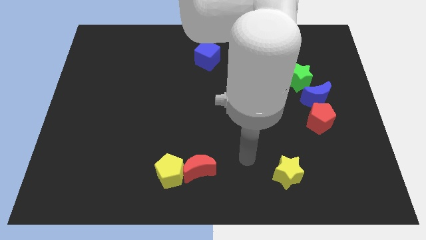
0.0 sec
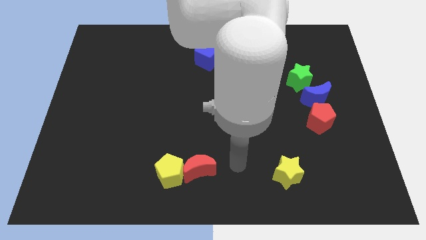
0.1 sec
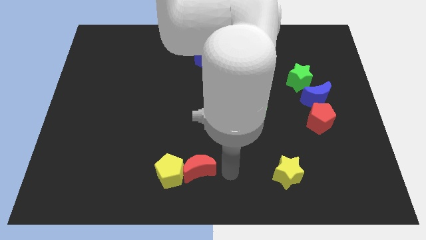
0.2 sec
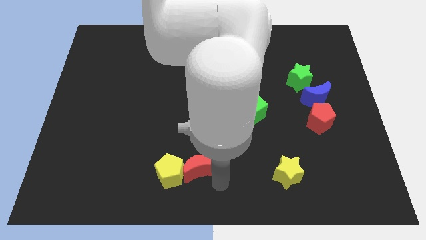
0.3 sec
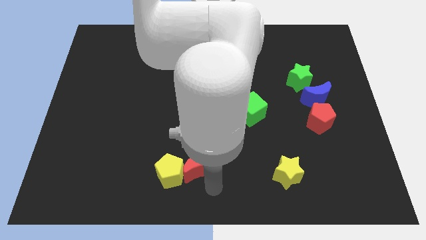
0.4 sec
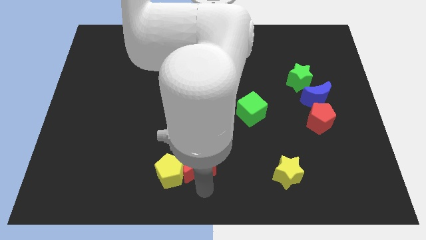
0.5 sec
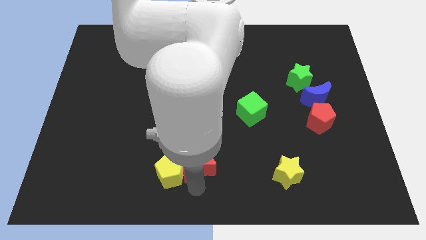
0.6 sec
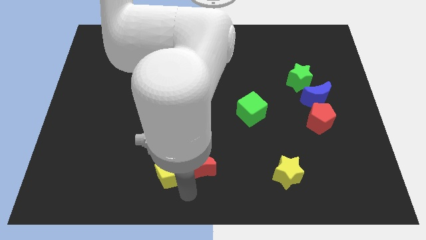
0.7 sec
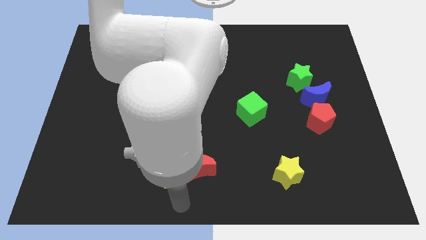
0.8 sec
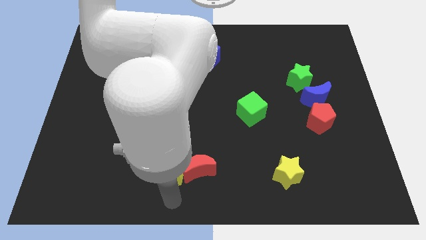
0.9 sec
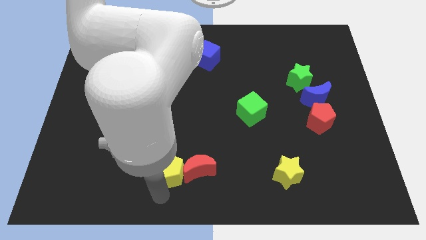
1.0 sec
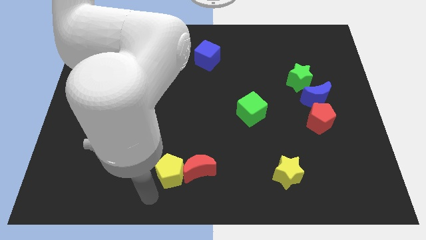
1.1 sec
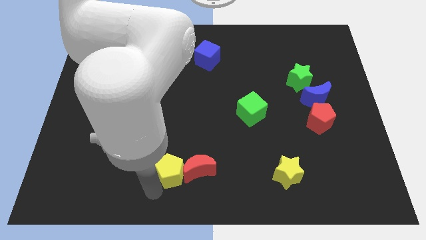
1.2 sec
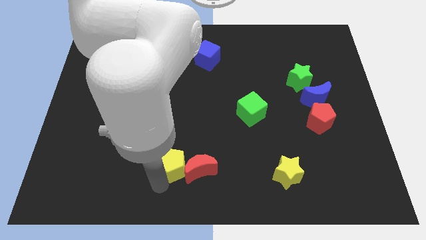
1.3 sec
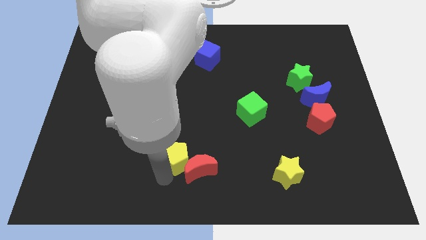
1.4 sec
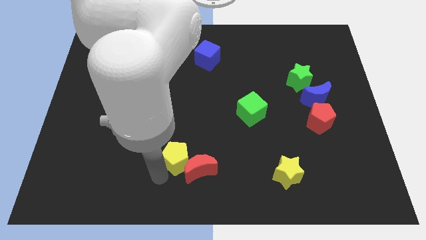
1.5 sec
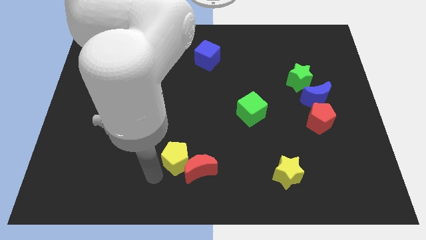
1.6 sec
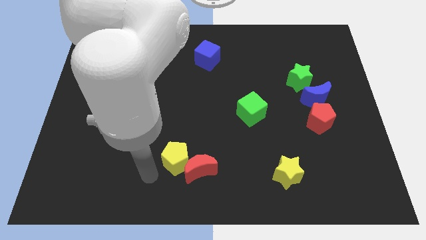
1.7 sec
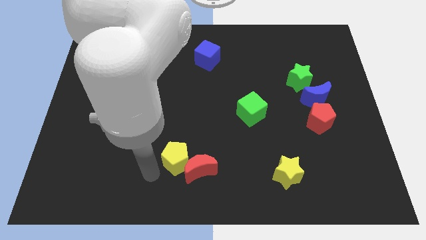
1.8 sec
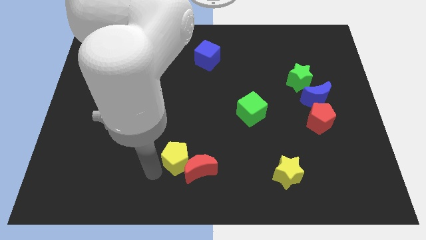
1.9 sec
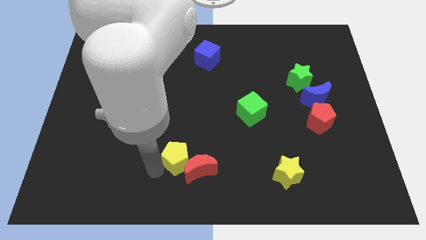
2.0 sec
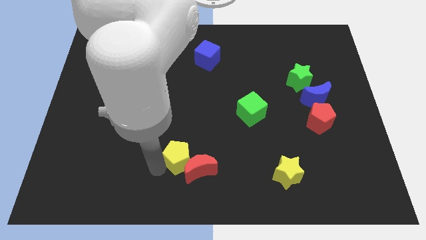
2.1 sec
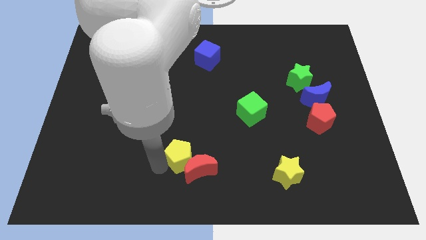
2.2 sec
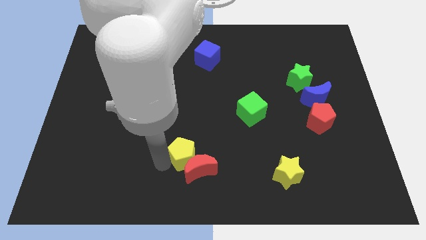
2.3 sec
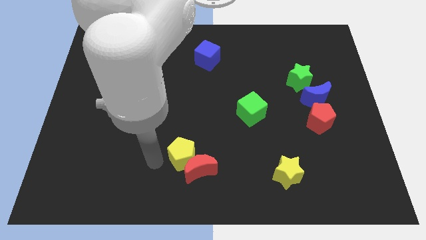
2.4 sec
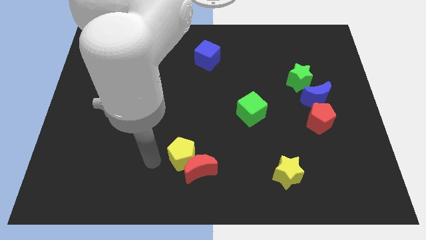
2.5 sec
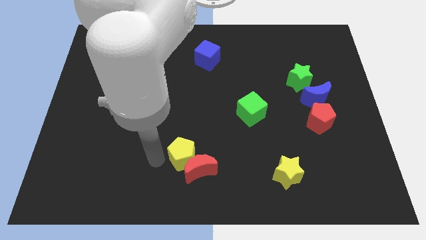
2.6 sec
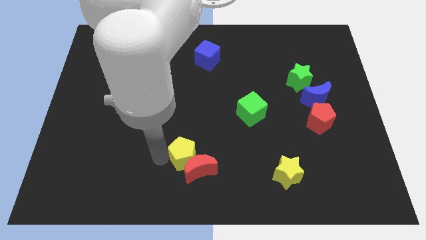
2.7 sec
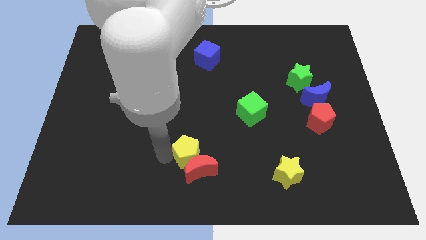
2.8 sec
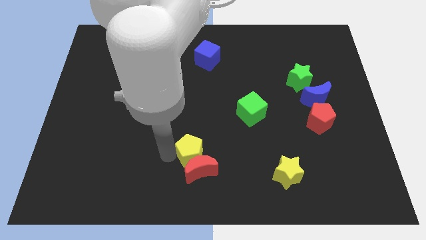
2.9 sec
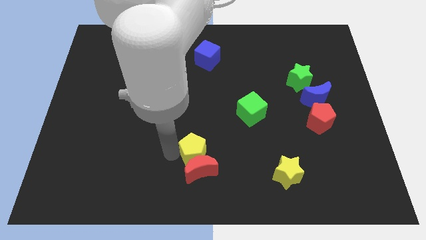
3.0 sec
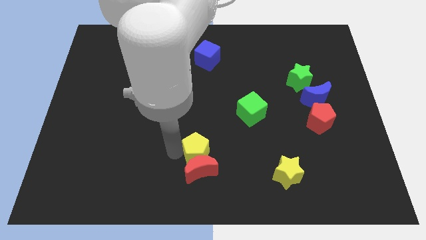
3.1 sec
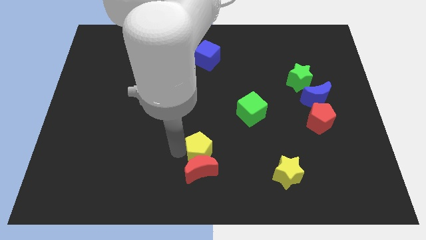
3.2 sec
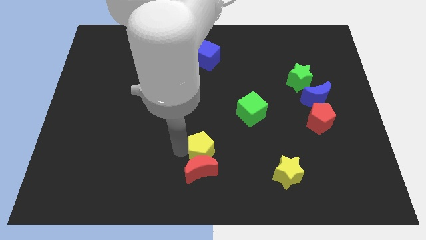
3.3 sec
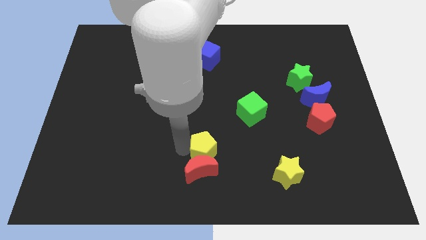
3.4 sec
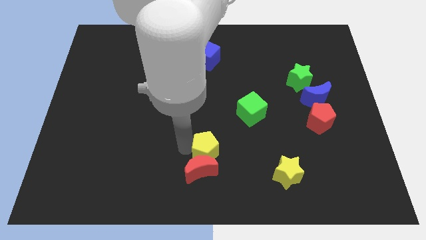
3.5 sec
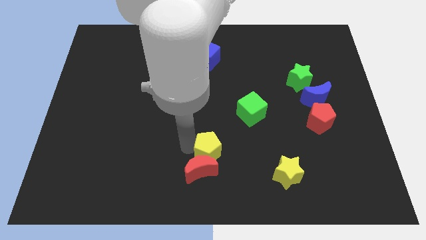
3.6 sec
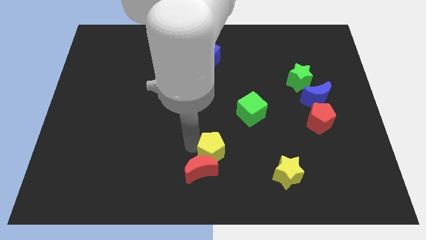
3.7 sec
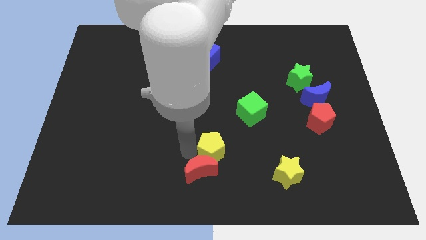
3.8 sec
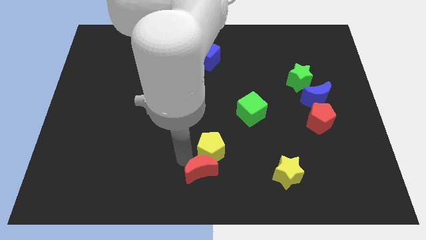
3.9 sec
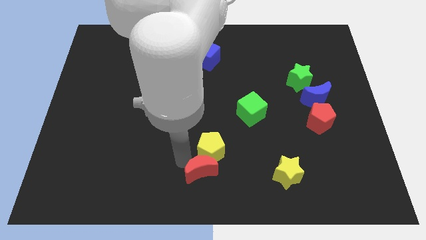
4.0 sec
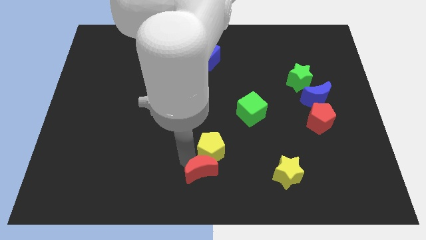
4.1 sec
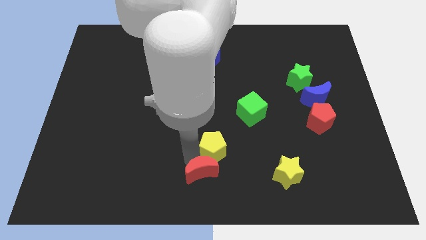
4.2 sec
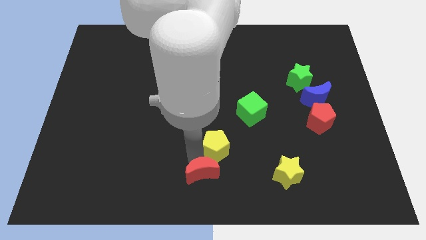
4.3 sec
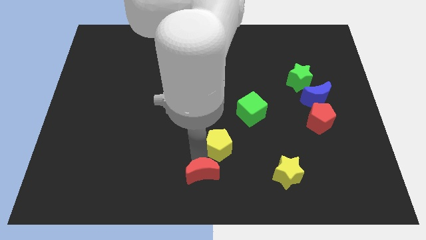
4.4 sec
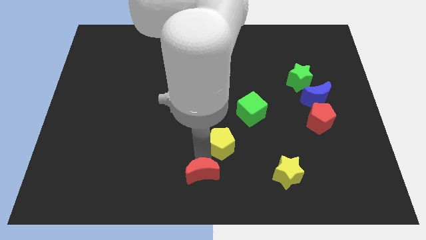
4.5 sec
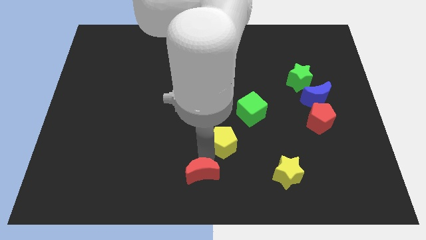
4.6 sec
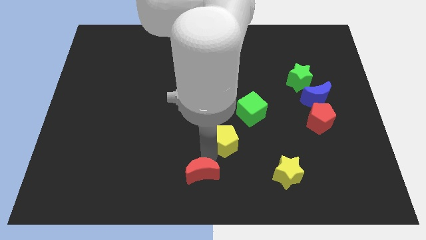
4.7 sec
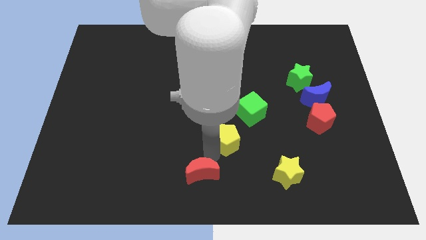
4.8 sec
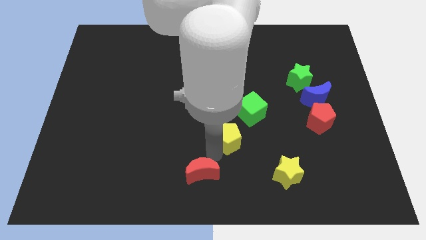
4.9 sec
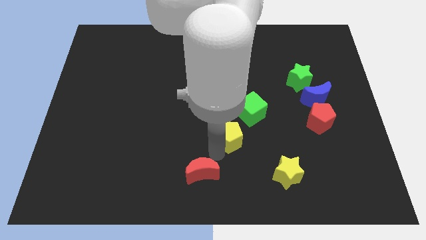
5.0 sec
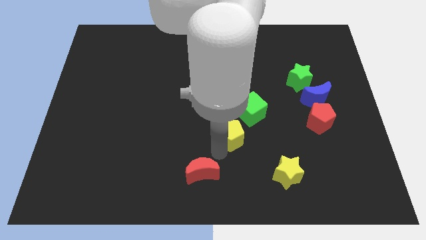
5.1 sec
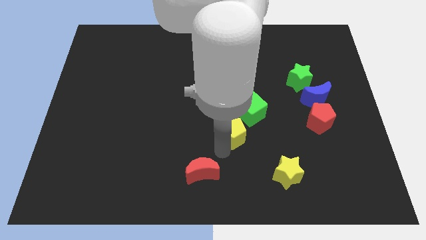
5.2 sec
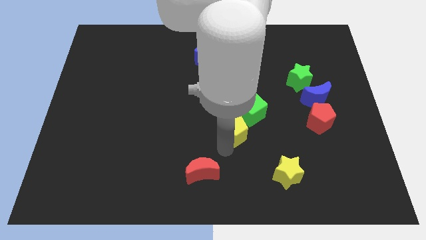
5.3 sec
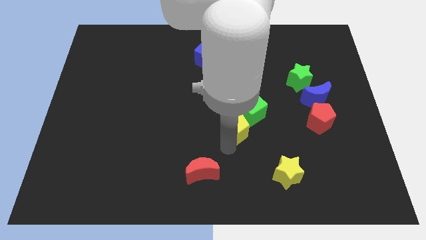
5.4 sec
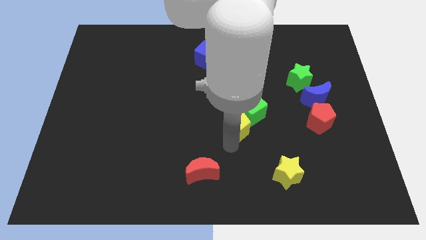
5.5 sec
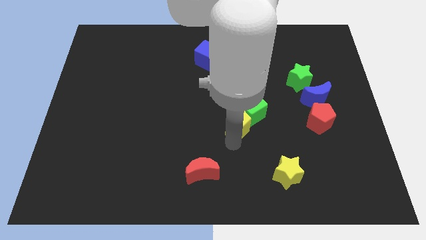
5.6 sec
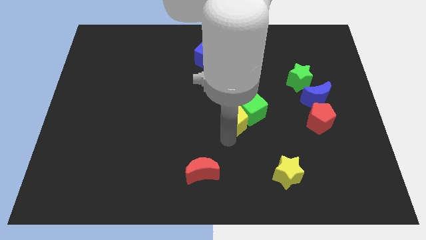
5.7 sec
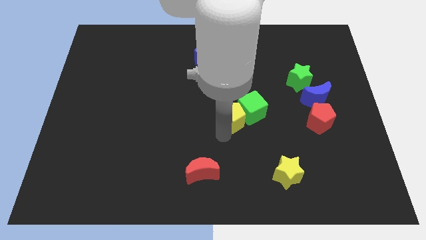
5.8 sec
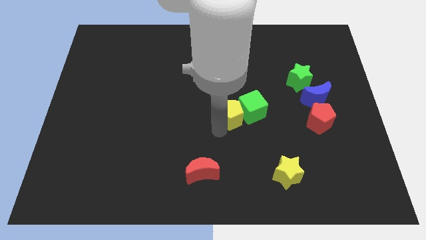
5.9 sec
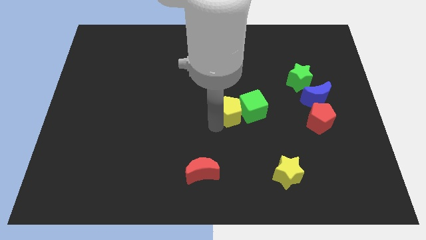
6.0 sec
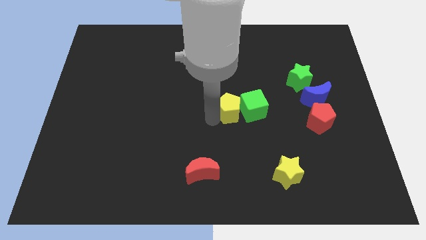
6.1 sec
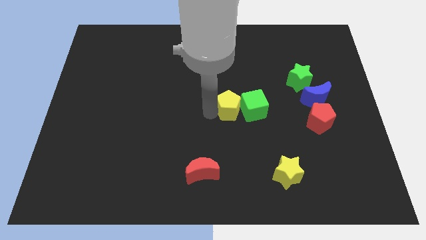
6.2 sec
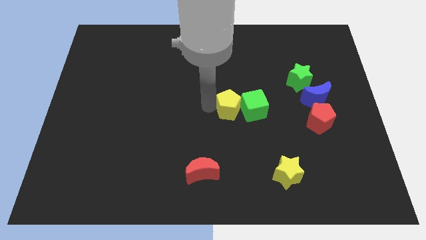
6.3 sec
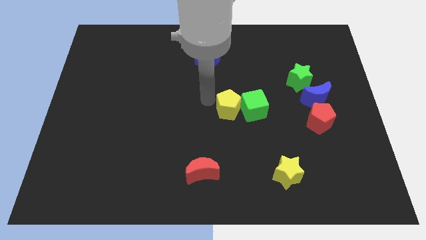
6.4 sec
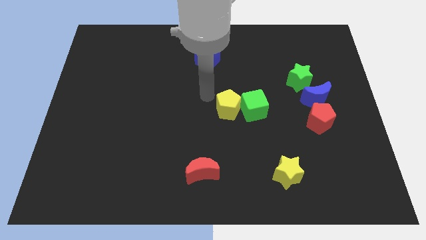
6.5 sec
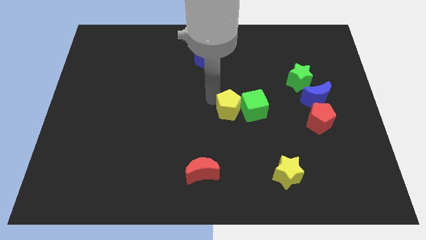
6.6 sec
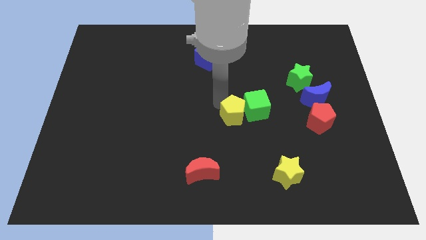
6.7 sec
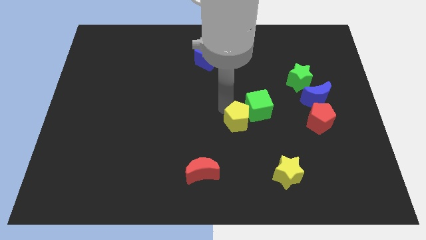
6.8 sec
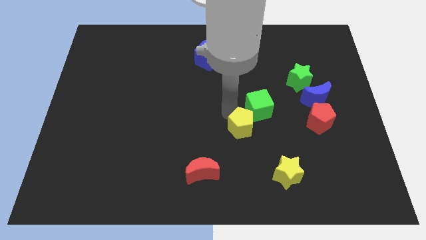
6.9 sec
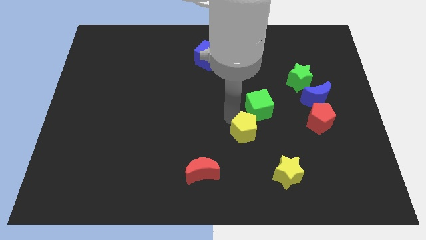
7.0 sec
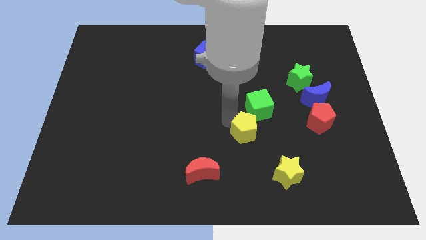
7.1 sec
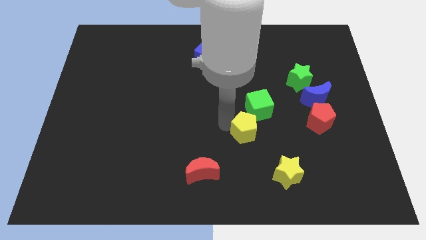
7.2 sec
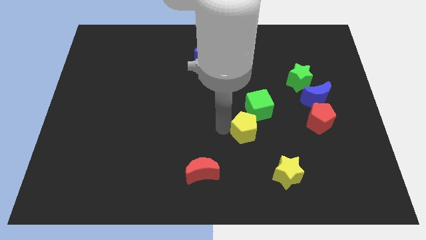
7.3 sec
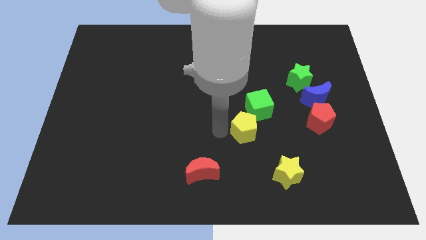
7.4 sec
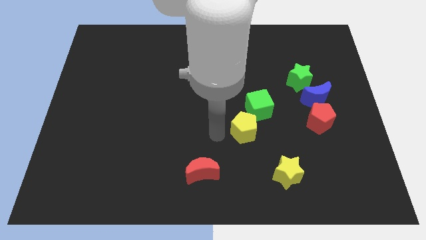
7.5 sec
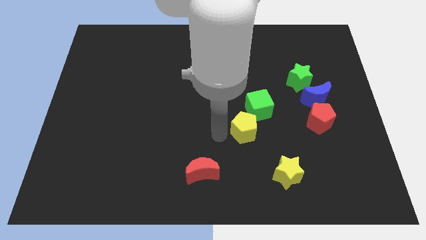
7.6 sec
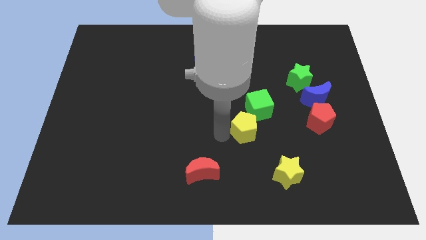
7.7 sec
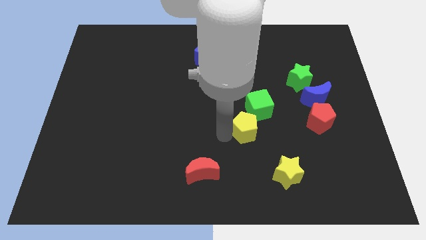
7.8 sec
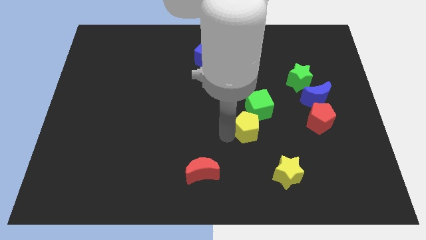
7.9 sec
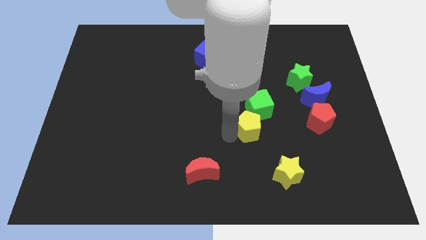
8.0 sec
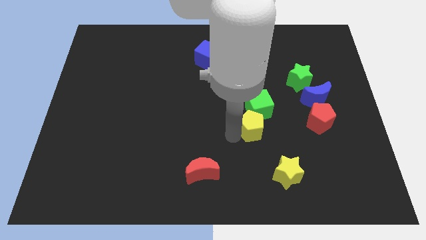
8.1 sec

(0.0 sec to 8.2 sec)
move the yellow pentagon to the left side of the red pentagon
